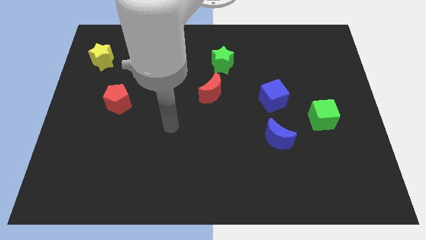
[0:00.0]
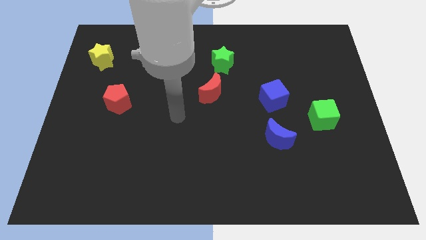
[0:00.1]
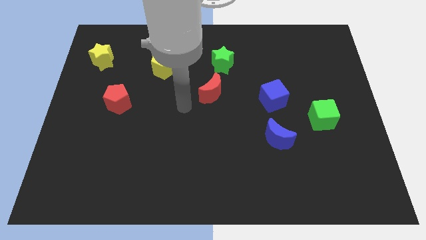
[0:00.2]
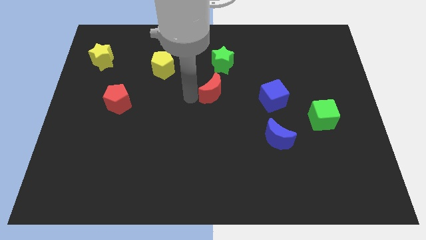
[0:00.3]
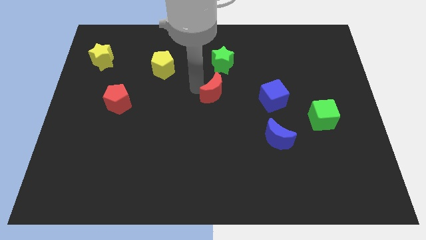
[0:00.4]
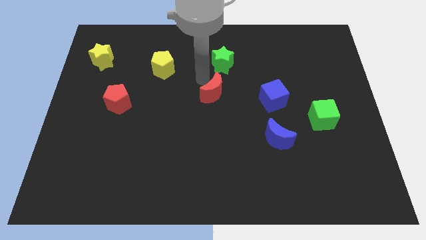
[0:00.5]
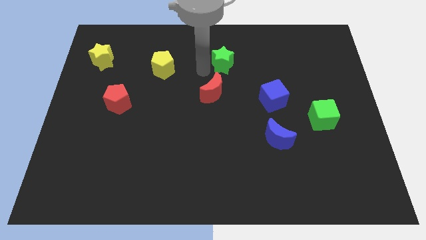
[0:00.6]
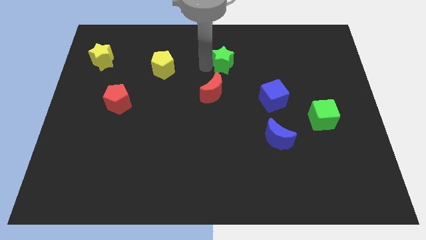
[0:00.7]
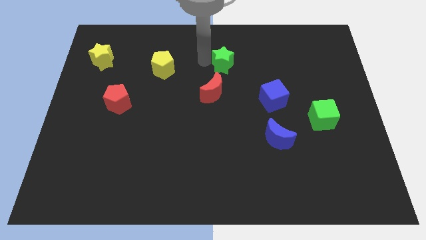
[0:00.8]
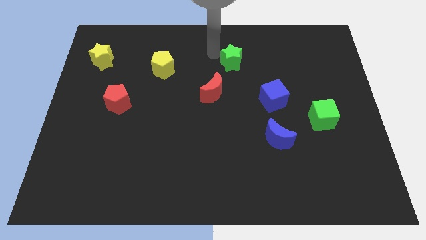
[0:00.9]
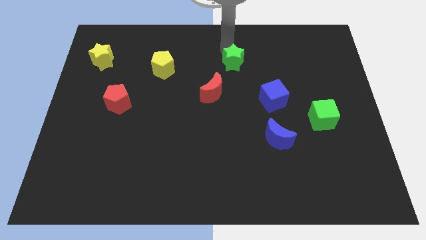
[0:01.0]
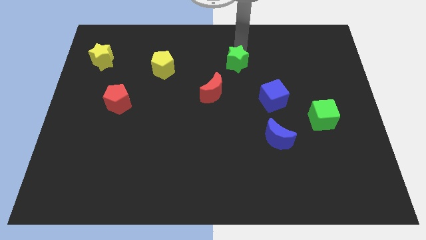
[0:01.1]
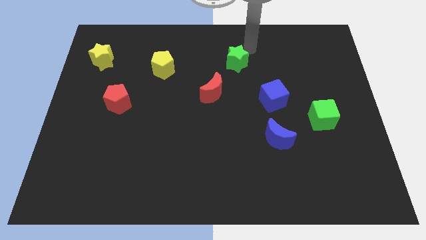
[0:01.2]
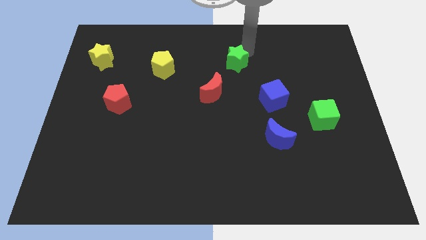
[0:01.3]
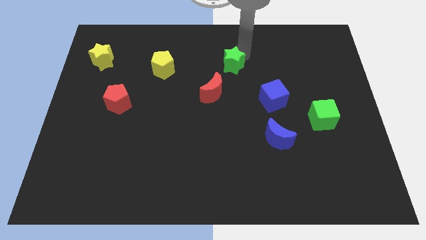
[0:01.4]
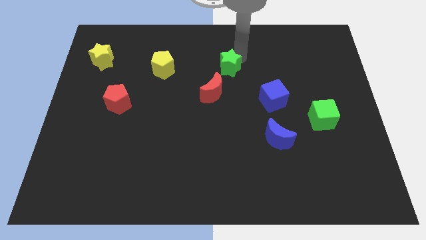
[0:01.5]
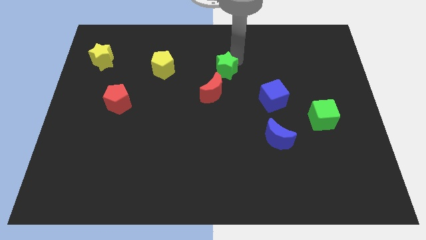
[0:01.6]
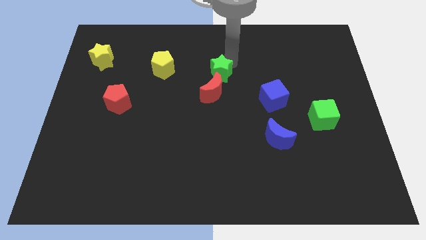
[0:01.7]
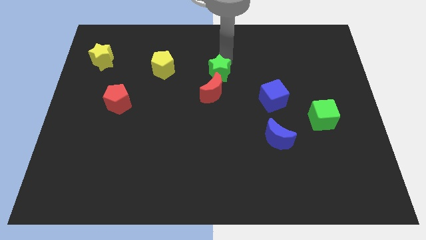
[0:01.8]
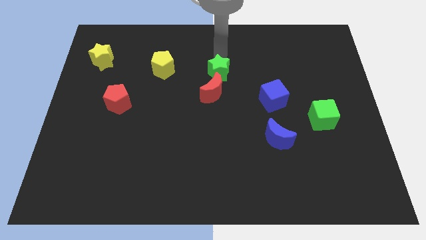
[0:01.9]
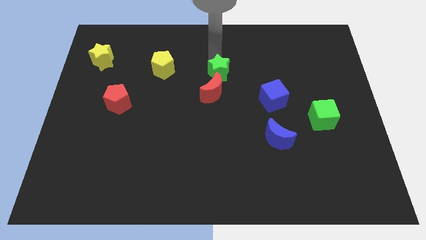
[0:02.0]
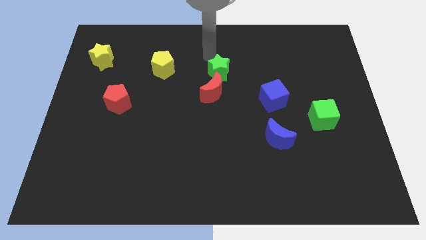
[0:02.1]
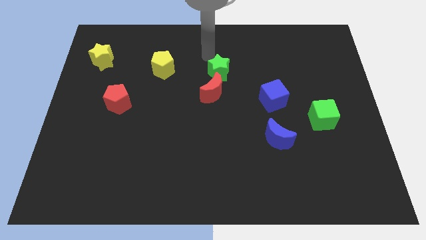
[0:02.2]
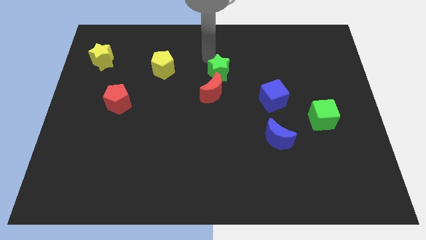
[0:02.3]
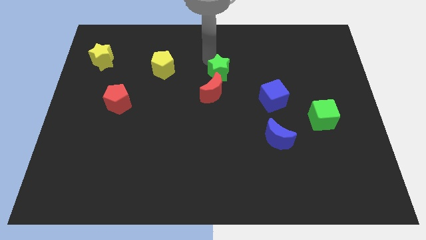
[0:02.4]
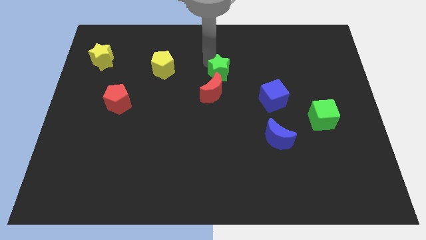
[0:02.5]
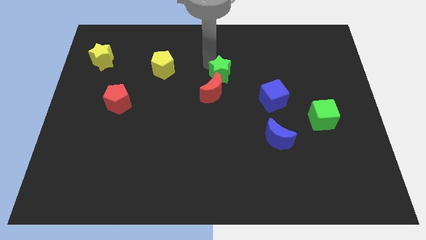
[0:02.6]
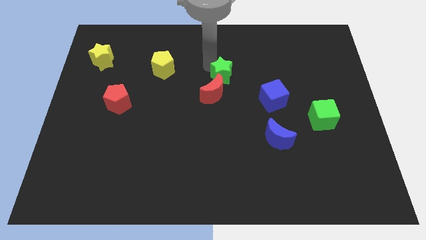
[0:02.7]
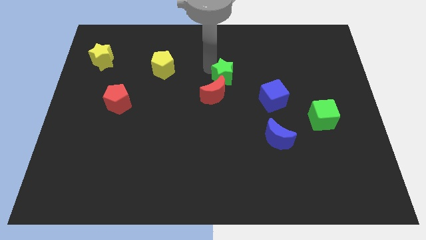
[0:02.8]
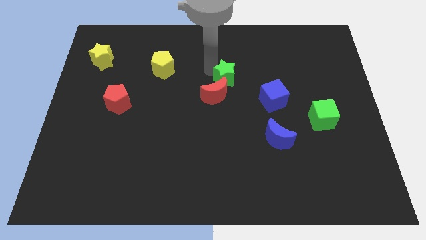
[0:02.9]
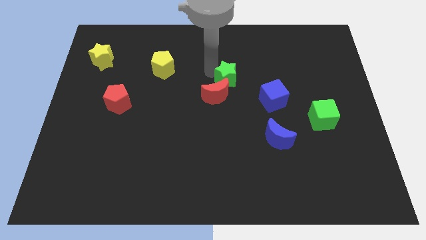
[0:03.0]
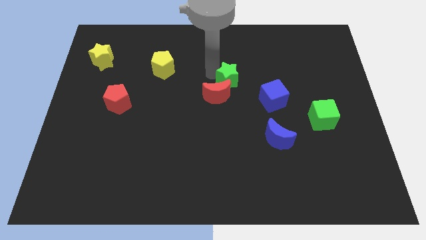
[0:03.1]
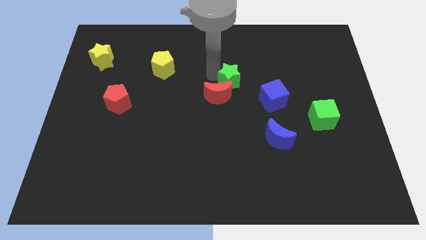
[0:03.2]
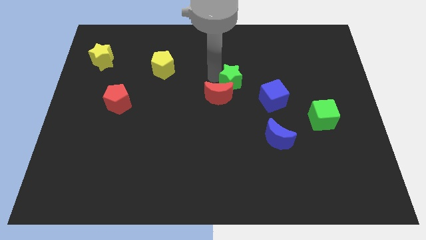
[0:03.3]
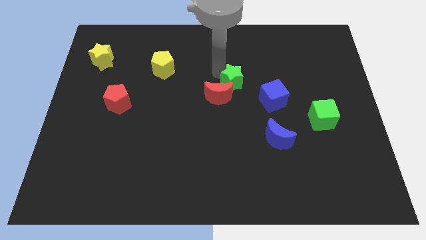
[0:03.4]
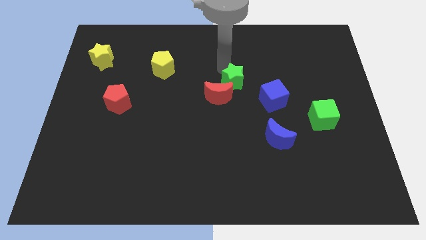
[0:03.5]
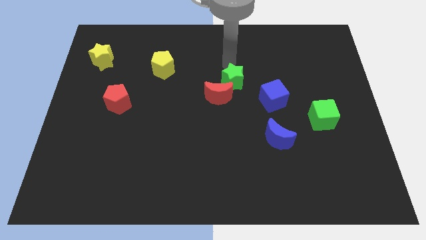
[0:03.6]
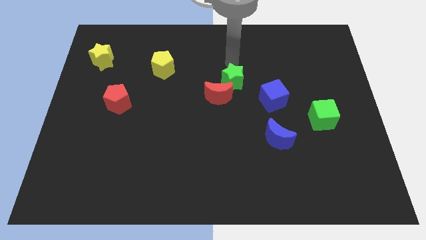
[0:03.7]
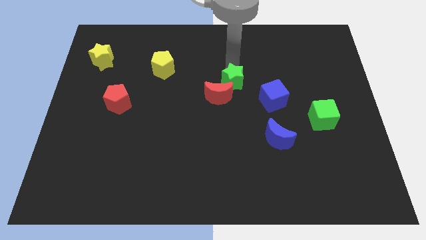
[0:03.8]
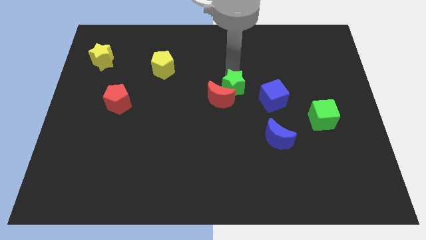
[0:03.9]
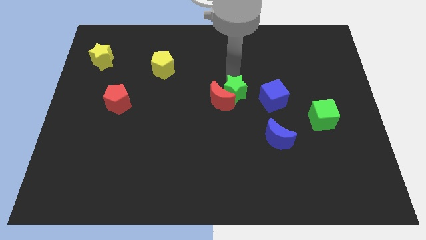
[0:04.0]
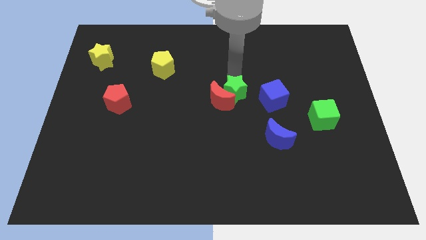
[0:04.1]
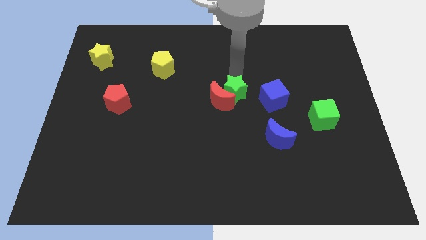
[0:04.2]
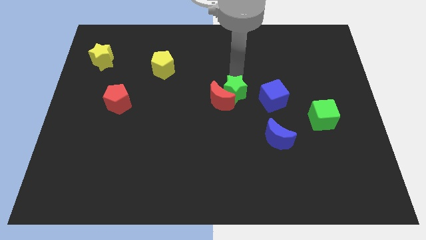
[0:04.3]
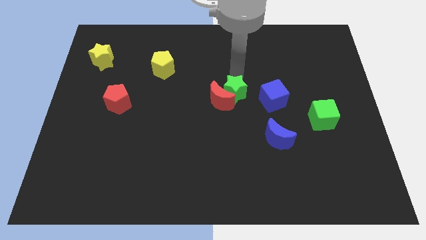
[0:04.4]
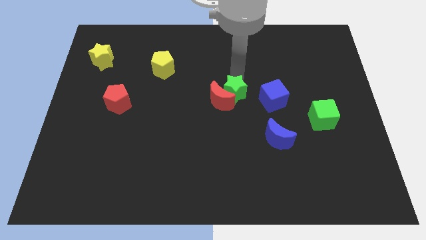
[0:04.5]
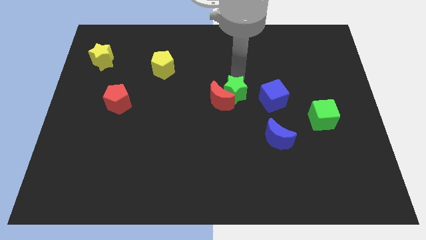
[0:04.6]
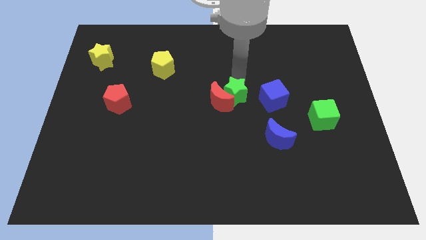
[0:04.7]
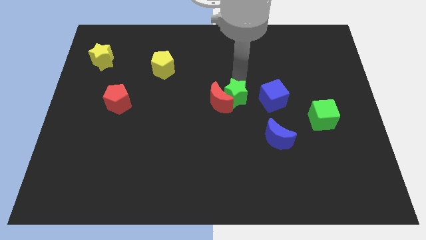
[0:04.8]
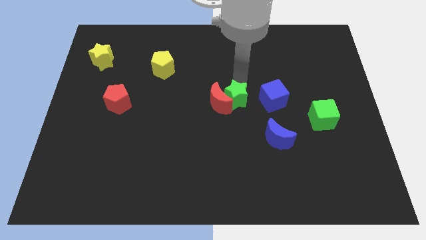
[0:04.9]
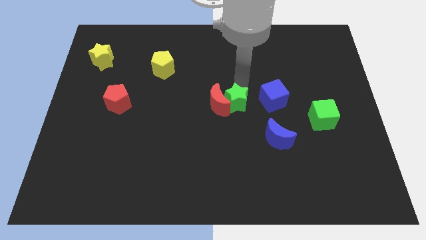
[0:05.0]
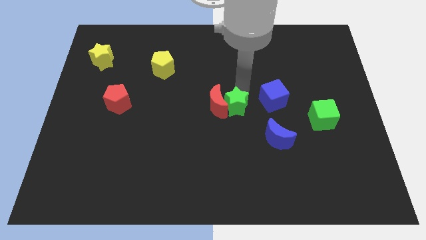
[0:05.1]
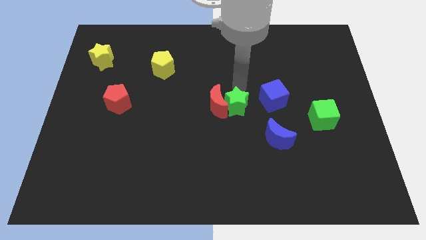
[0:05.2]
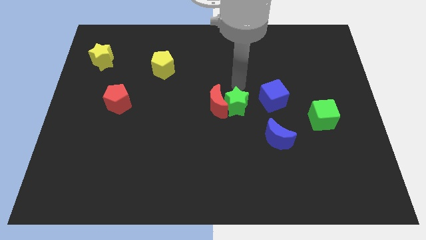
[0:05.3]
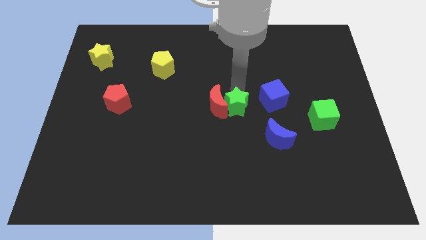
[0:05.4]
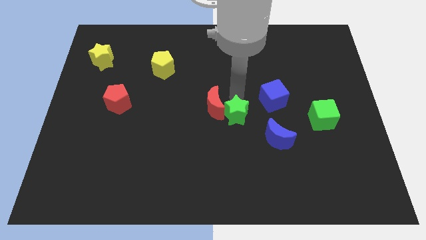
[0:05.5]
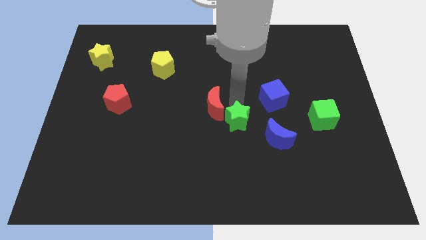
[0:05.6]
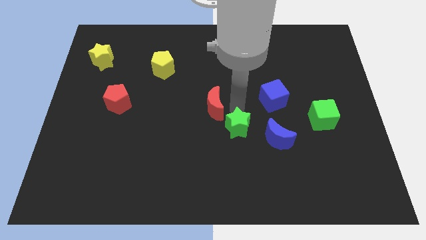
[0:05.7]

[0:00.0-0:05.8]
put the green star to the left side of the blue moon

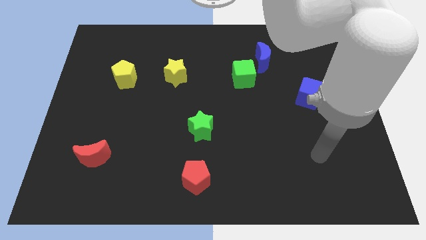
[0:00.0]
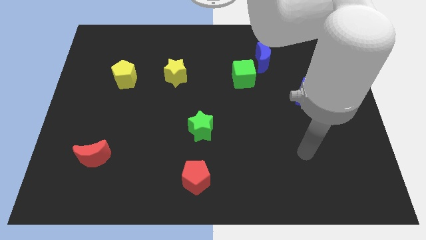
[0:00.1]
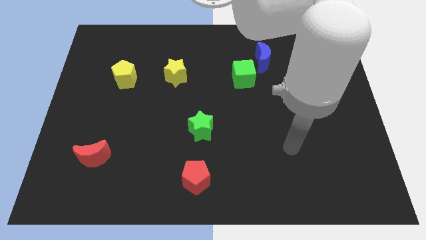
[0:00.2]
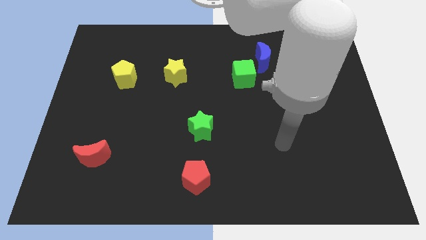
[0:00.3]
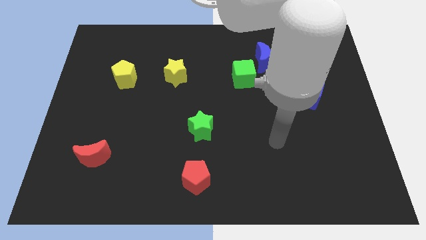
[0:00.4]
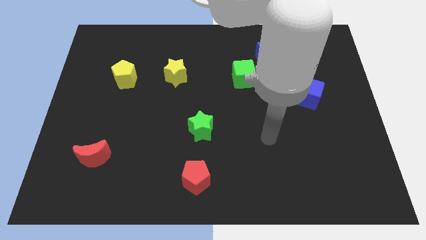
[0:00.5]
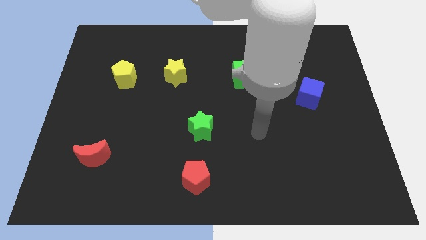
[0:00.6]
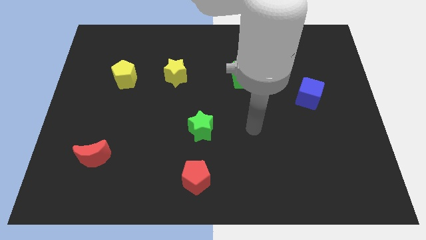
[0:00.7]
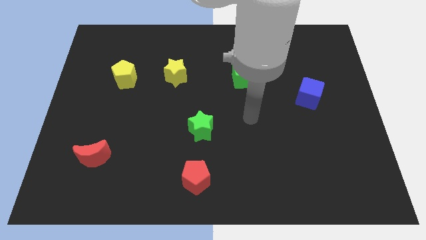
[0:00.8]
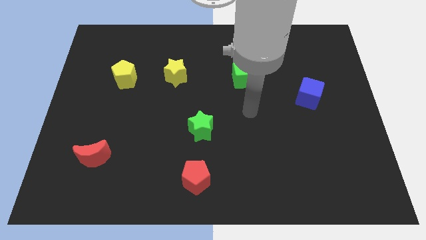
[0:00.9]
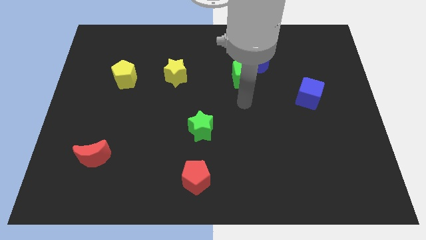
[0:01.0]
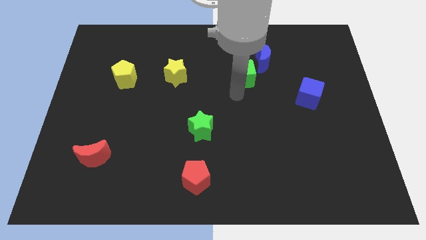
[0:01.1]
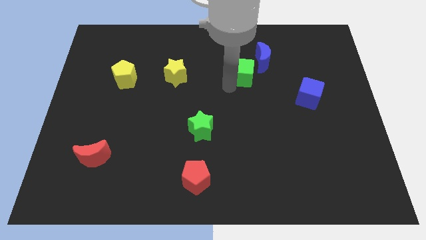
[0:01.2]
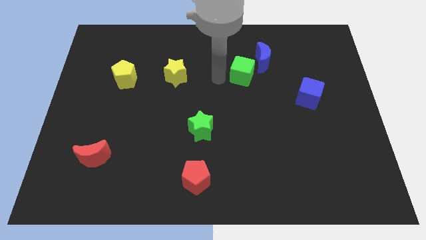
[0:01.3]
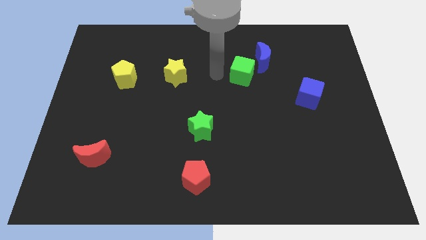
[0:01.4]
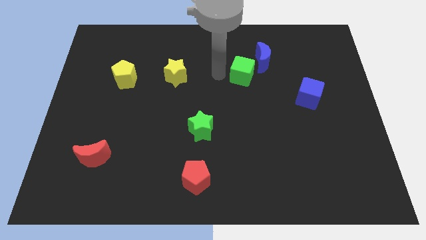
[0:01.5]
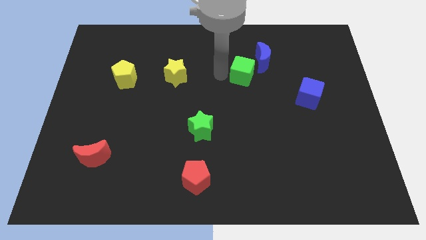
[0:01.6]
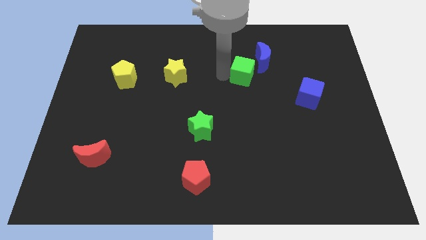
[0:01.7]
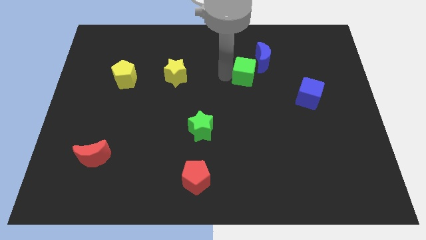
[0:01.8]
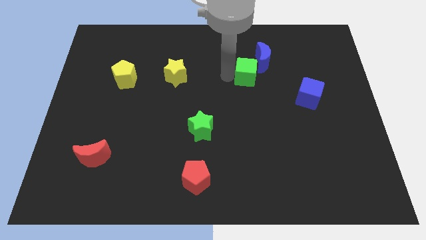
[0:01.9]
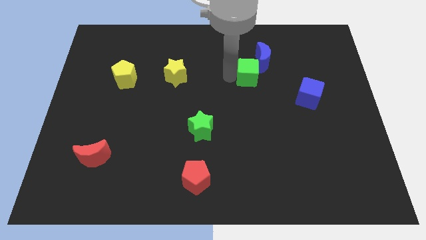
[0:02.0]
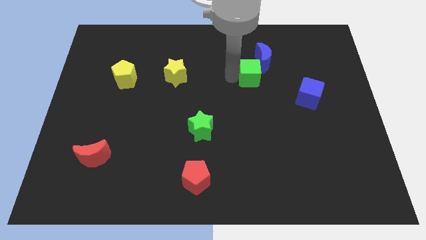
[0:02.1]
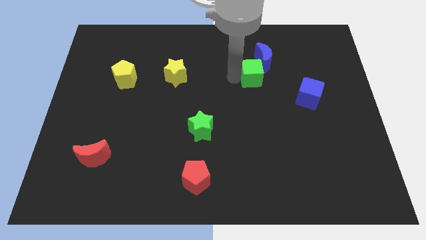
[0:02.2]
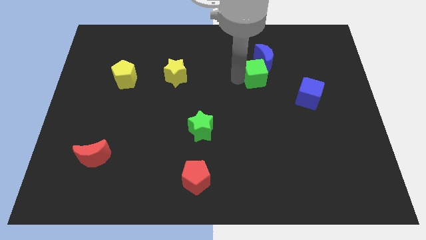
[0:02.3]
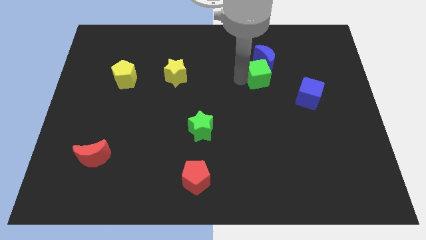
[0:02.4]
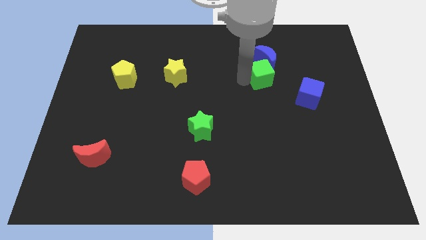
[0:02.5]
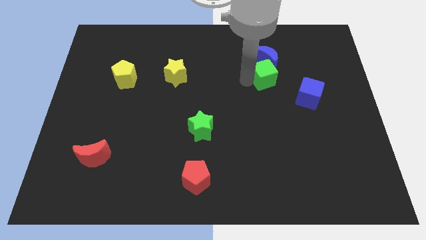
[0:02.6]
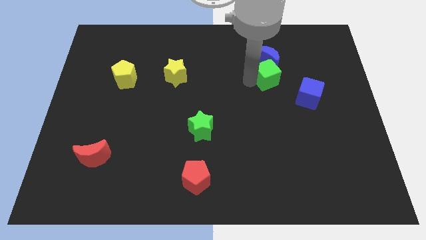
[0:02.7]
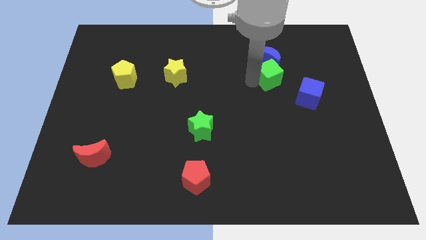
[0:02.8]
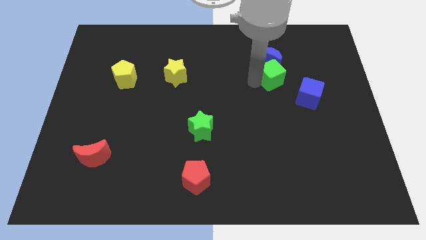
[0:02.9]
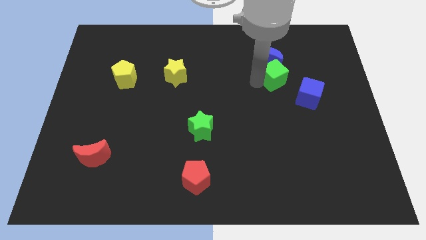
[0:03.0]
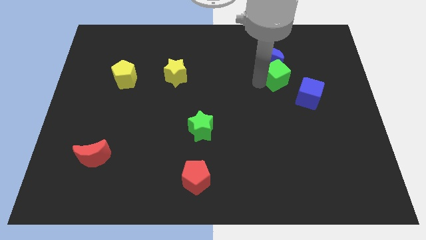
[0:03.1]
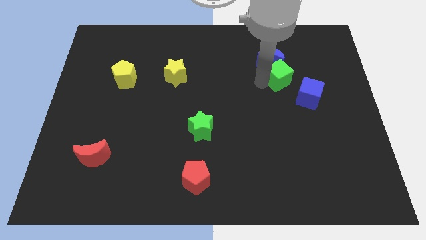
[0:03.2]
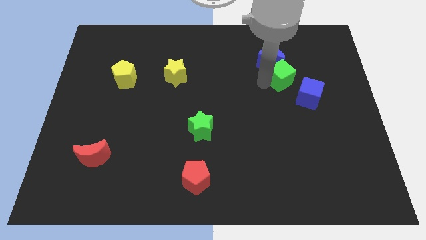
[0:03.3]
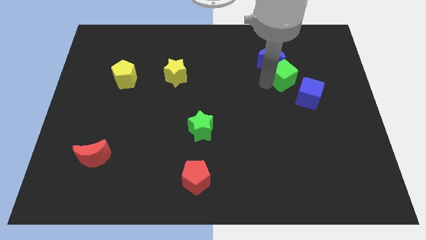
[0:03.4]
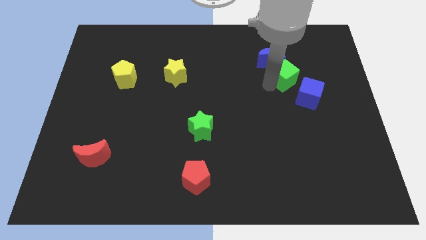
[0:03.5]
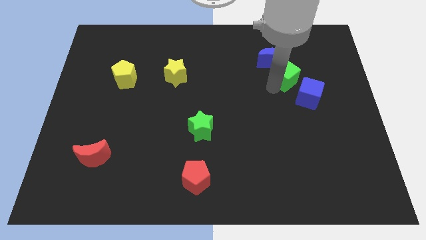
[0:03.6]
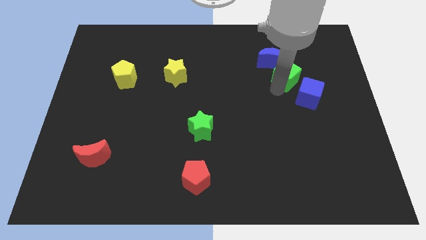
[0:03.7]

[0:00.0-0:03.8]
move the green cube above the blue cube
